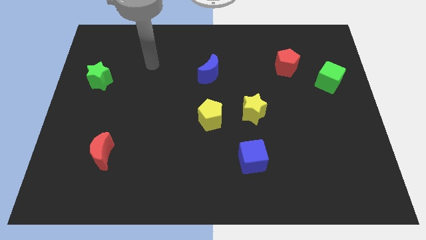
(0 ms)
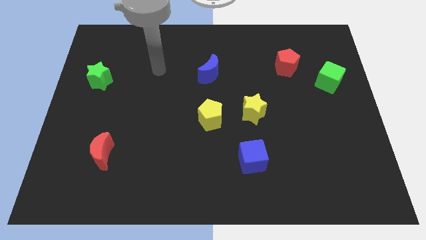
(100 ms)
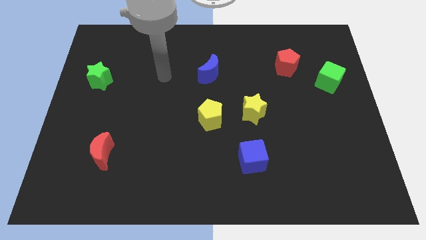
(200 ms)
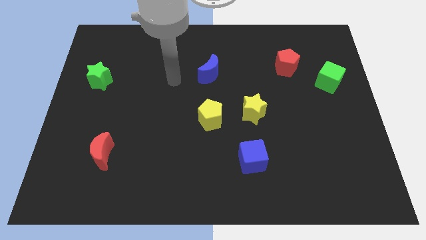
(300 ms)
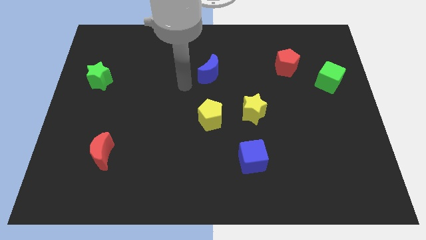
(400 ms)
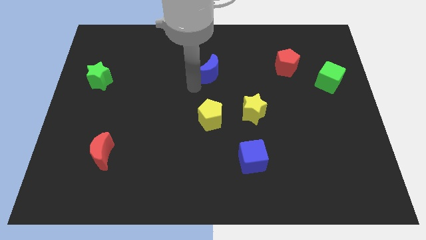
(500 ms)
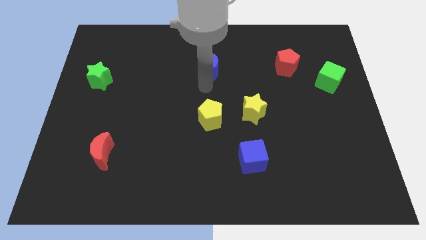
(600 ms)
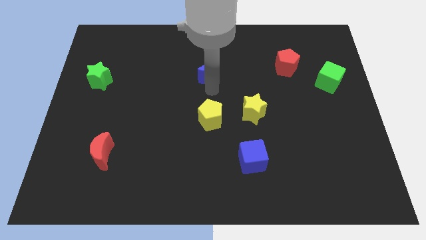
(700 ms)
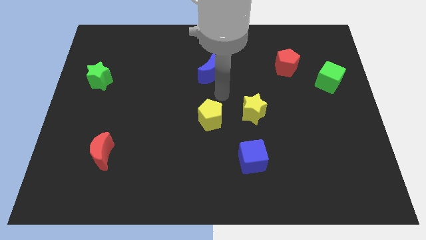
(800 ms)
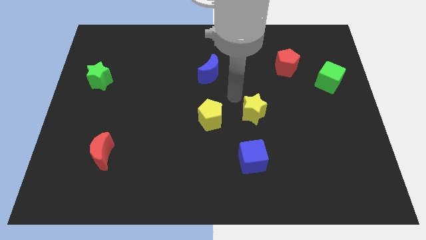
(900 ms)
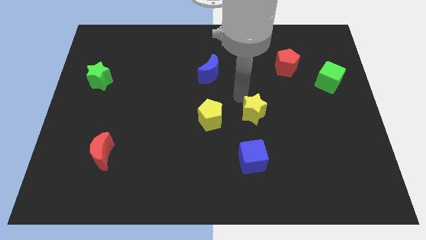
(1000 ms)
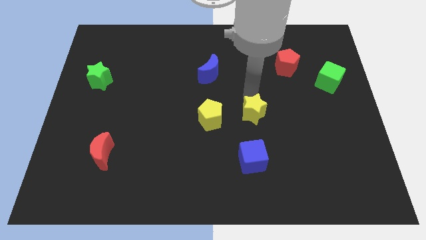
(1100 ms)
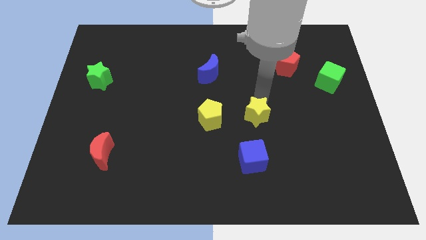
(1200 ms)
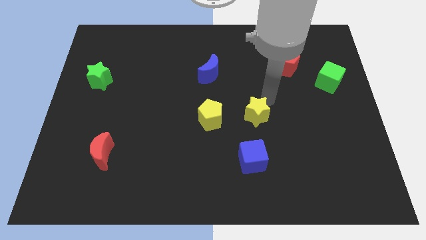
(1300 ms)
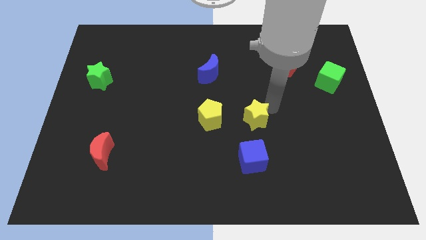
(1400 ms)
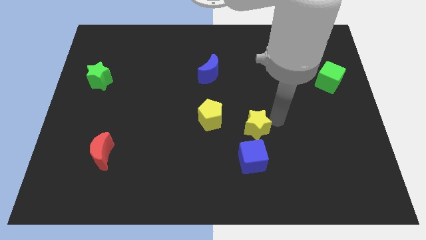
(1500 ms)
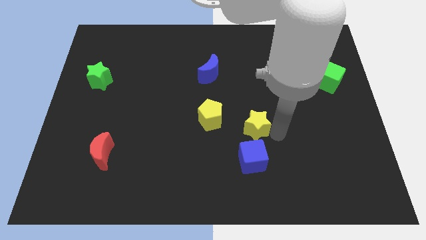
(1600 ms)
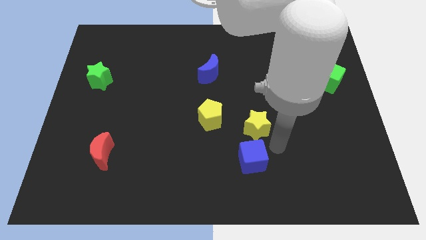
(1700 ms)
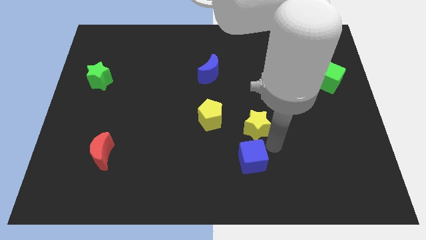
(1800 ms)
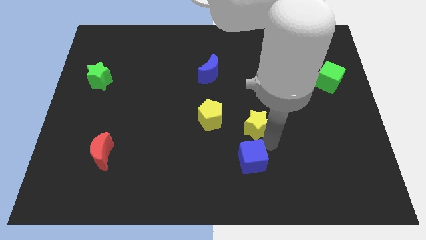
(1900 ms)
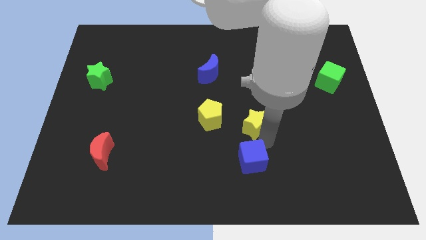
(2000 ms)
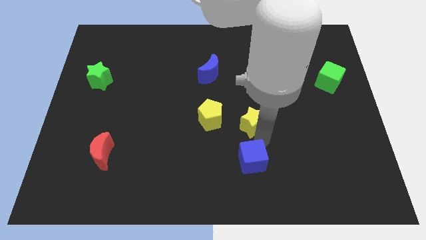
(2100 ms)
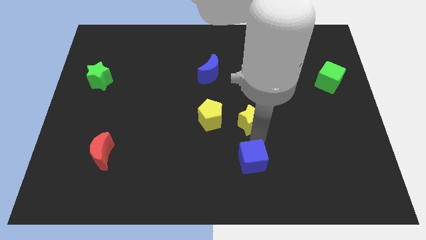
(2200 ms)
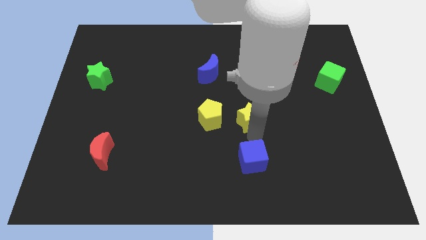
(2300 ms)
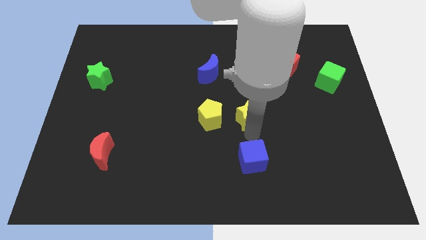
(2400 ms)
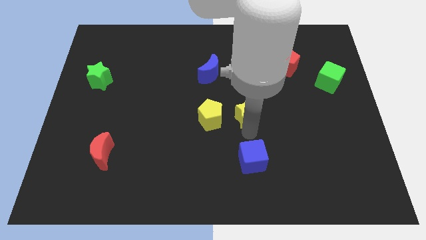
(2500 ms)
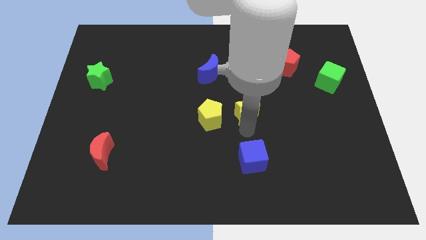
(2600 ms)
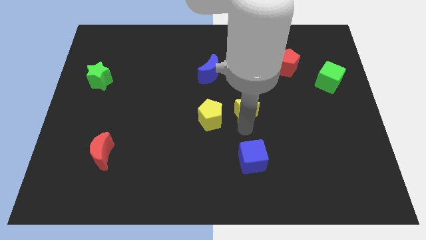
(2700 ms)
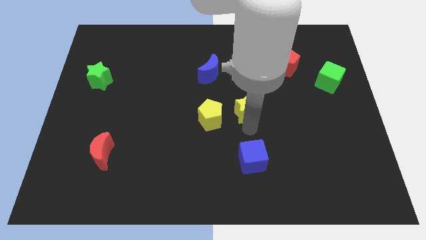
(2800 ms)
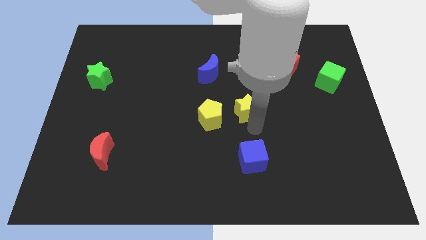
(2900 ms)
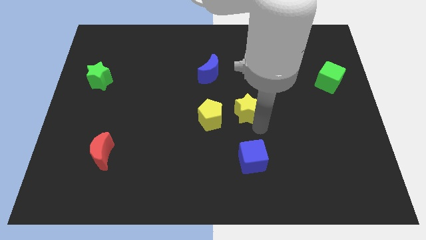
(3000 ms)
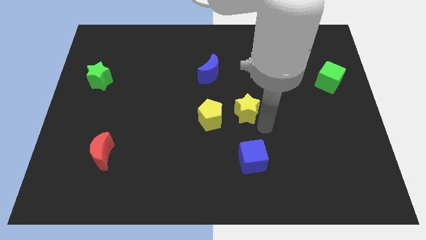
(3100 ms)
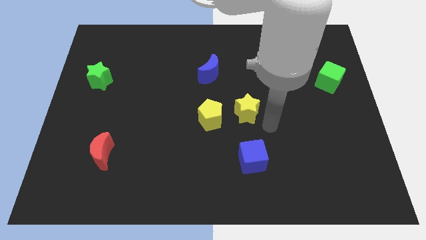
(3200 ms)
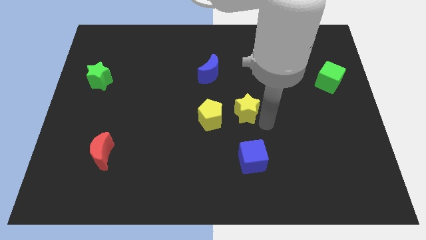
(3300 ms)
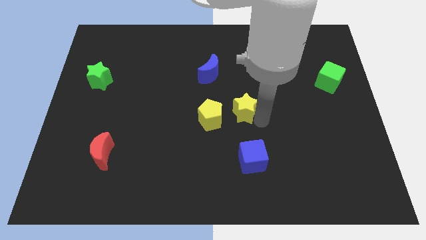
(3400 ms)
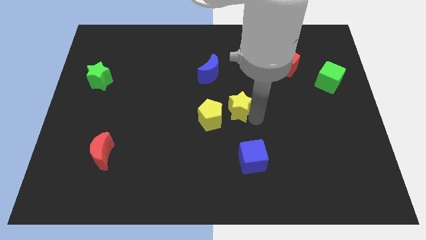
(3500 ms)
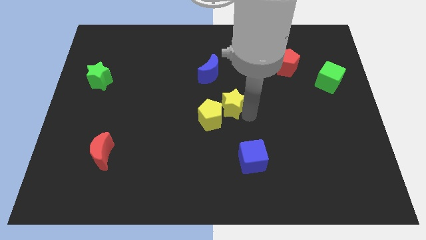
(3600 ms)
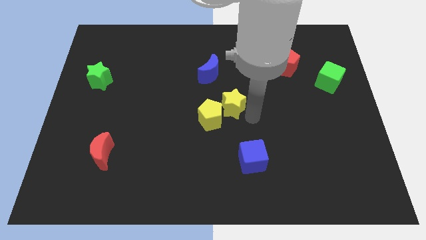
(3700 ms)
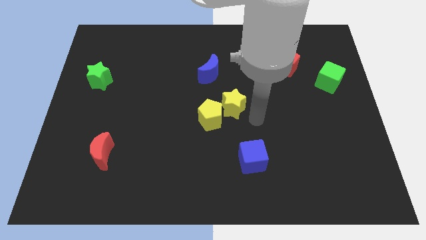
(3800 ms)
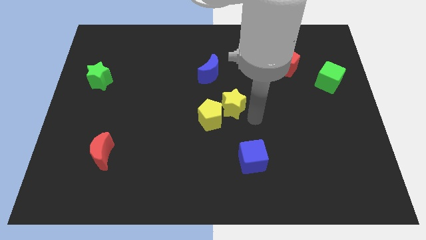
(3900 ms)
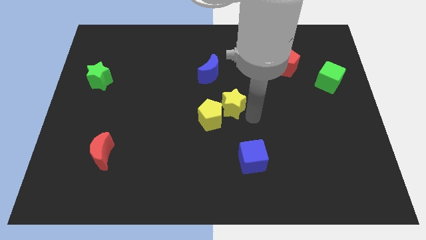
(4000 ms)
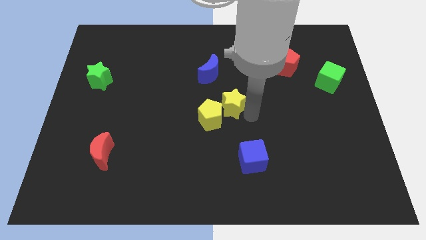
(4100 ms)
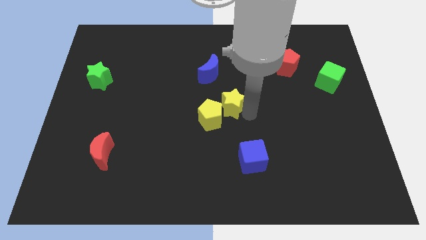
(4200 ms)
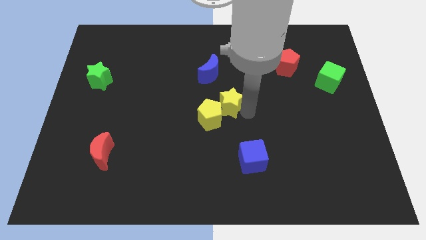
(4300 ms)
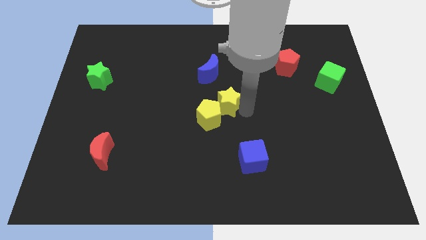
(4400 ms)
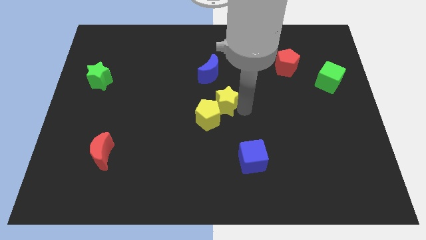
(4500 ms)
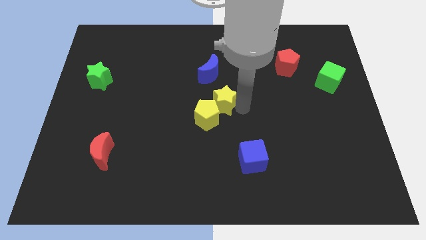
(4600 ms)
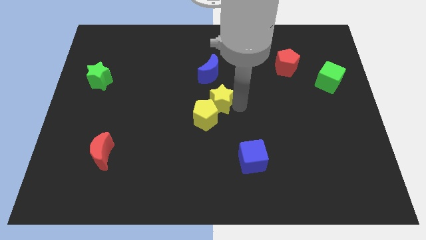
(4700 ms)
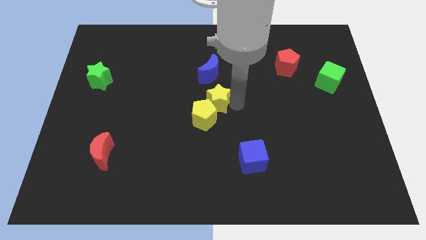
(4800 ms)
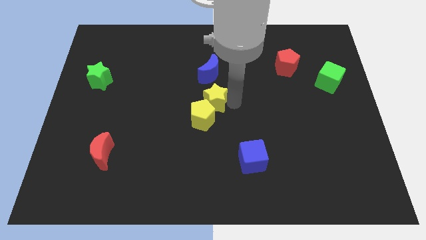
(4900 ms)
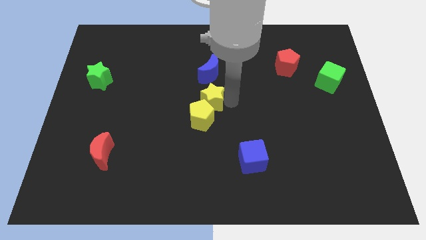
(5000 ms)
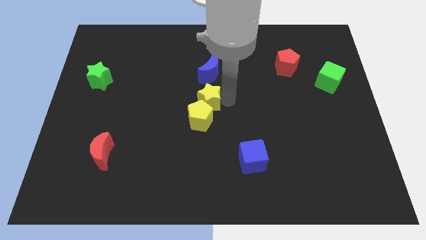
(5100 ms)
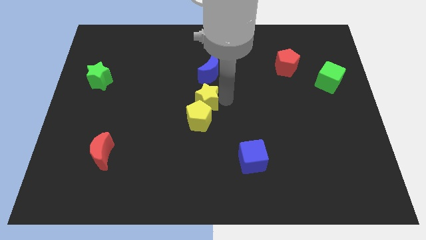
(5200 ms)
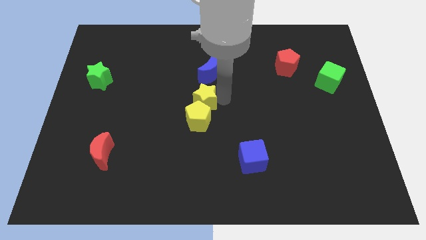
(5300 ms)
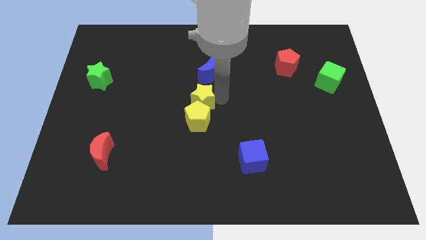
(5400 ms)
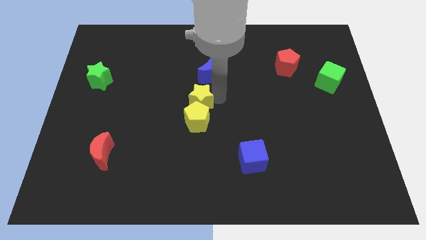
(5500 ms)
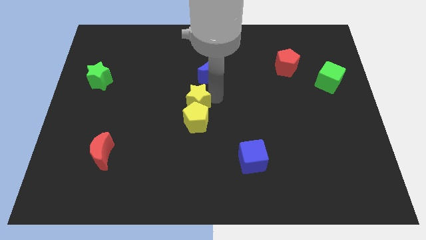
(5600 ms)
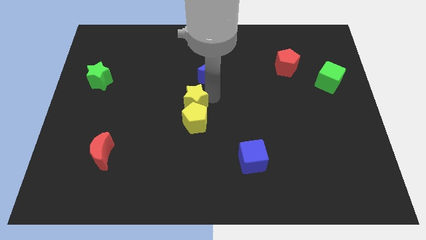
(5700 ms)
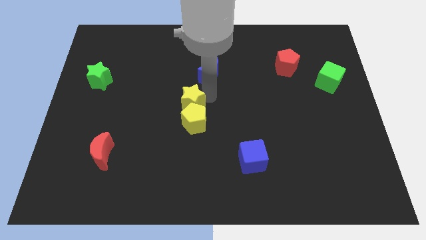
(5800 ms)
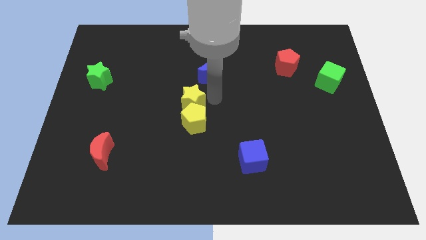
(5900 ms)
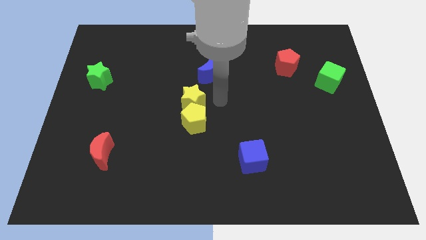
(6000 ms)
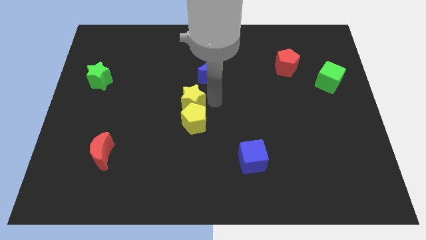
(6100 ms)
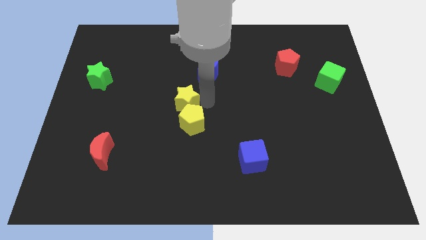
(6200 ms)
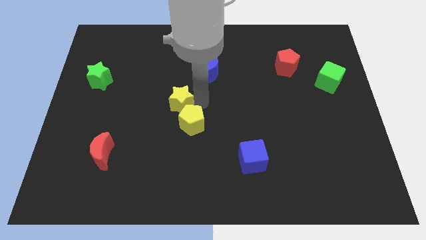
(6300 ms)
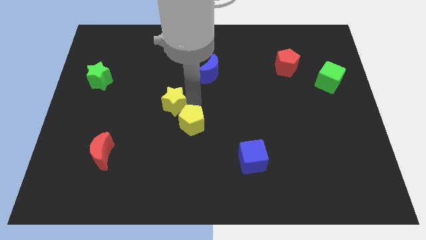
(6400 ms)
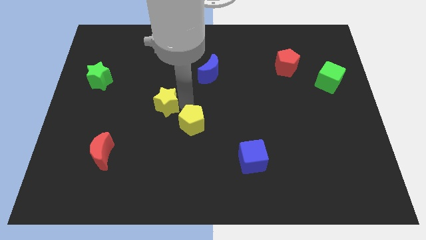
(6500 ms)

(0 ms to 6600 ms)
move the yellow star left

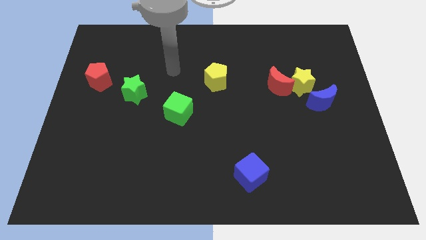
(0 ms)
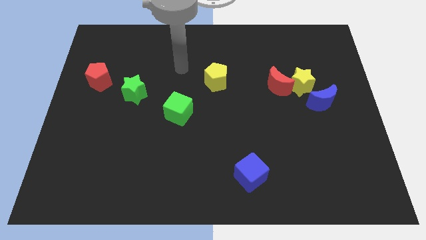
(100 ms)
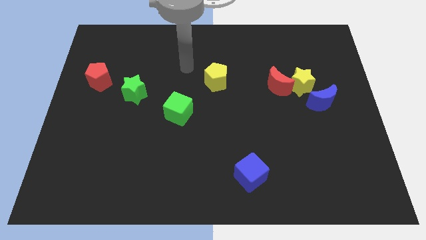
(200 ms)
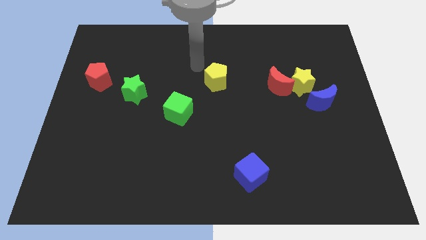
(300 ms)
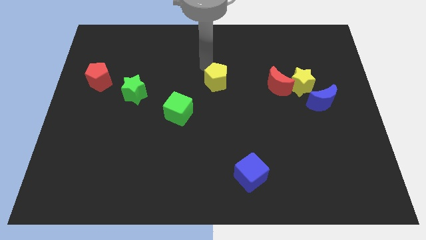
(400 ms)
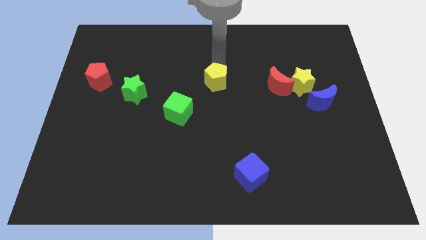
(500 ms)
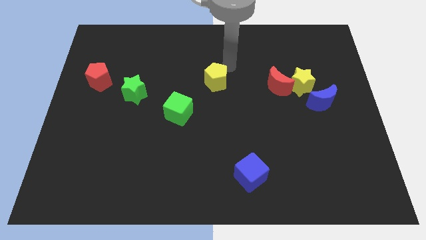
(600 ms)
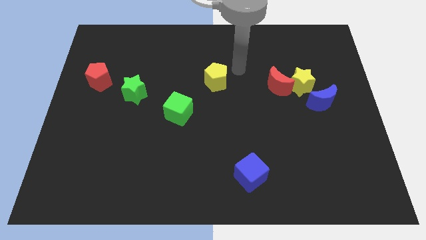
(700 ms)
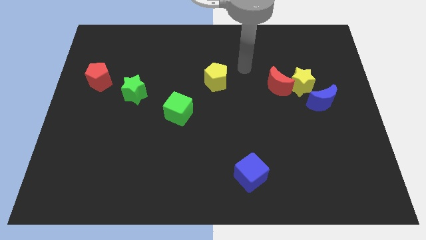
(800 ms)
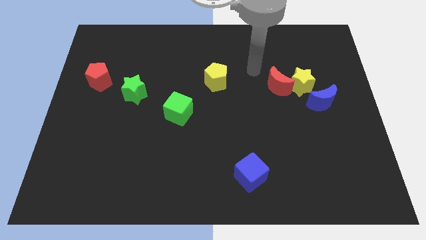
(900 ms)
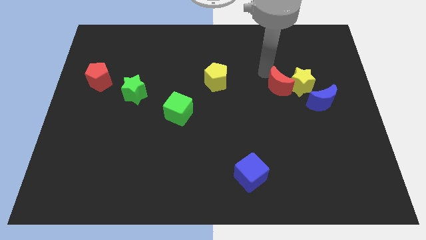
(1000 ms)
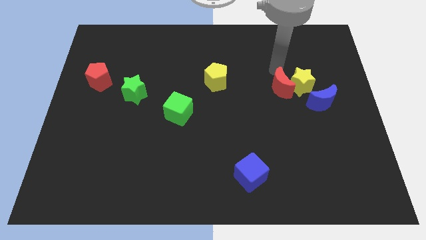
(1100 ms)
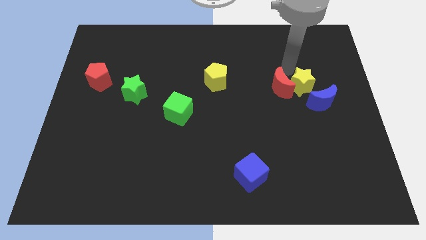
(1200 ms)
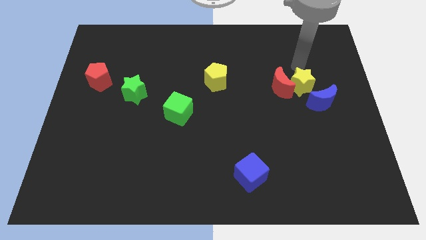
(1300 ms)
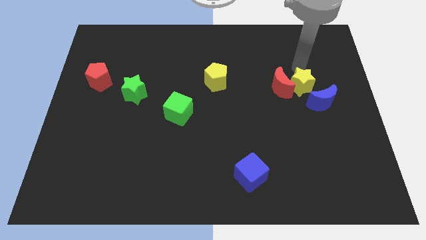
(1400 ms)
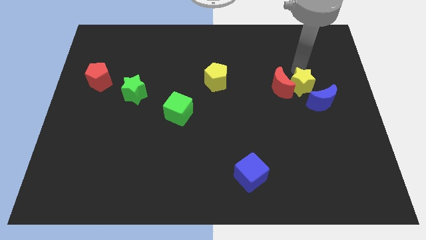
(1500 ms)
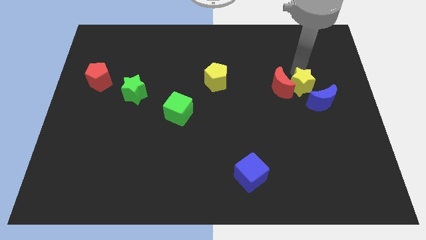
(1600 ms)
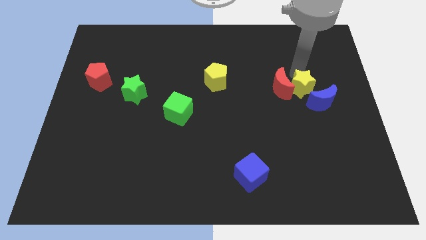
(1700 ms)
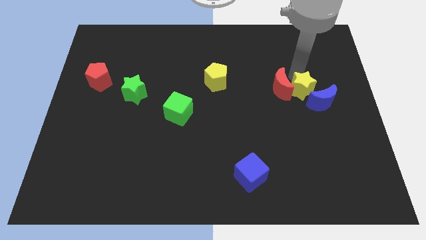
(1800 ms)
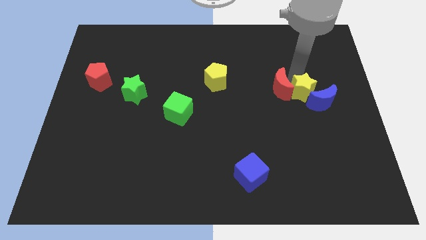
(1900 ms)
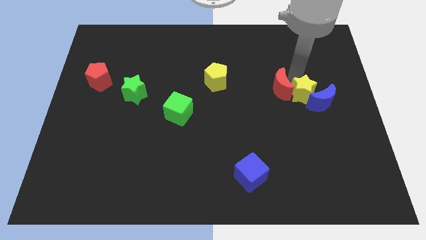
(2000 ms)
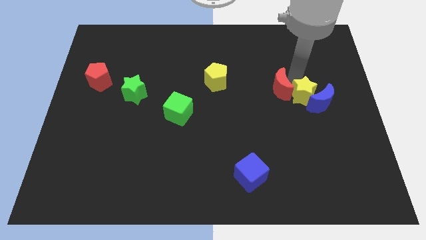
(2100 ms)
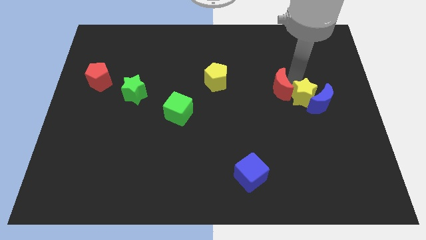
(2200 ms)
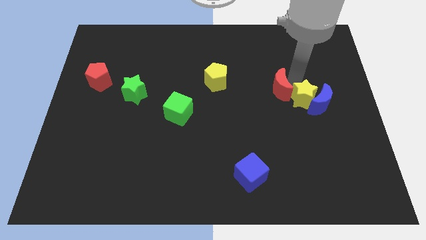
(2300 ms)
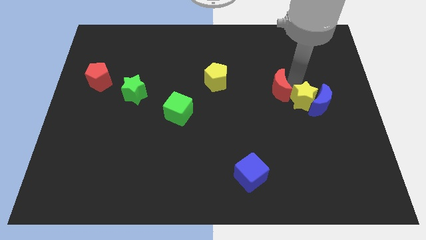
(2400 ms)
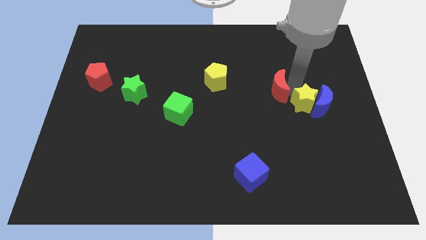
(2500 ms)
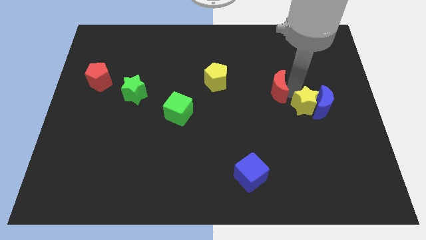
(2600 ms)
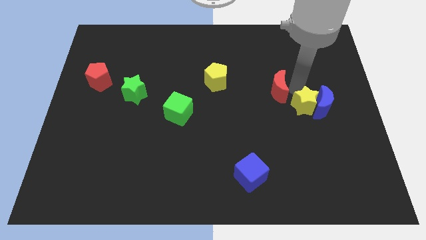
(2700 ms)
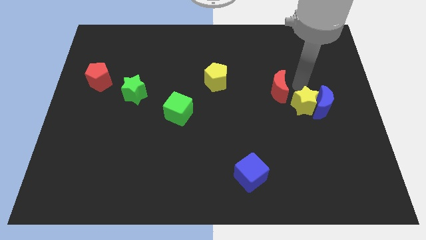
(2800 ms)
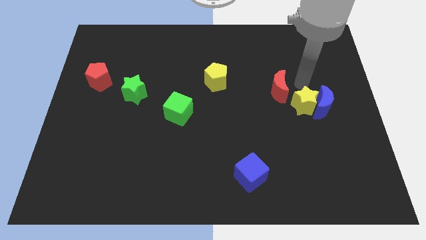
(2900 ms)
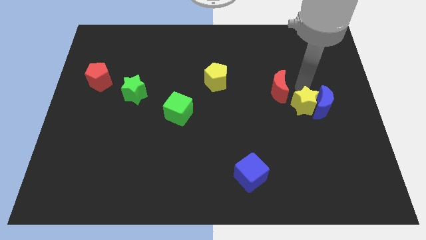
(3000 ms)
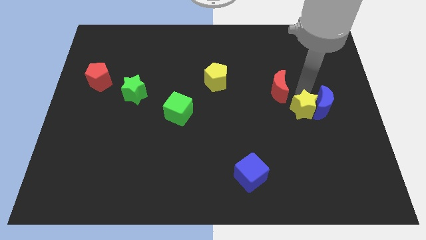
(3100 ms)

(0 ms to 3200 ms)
move the yellow star downwards slightly
